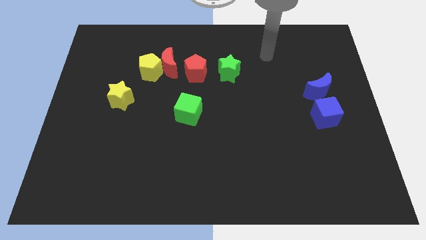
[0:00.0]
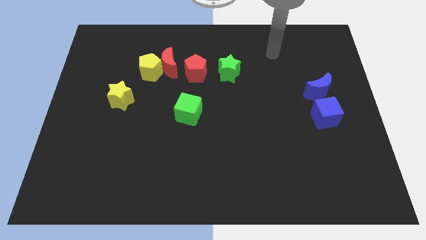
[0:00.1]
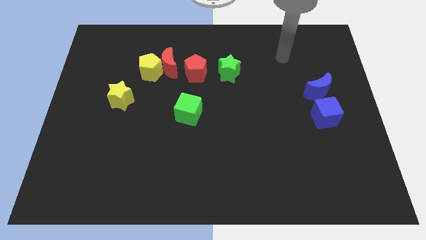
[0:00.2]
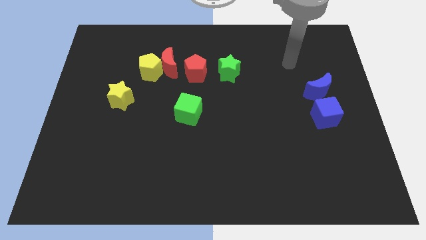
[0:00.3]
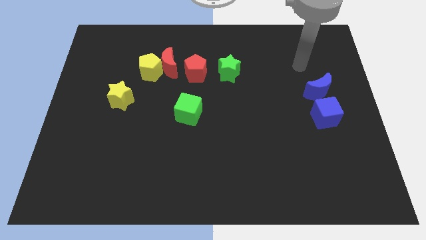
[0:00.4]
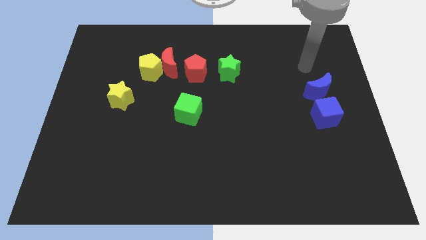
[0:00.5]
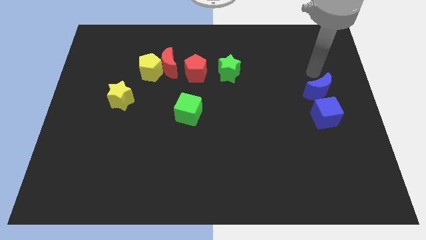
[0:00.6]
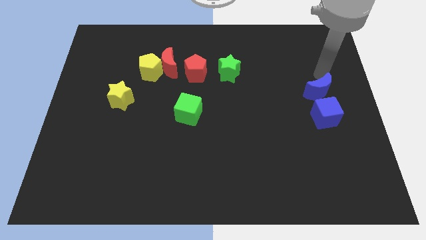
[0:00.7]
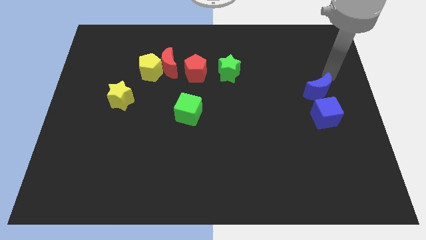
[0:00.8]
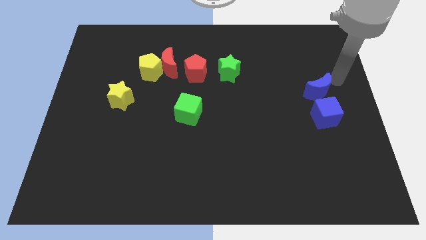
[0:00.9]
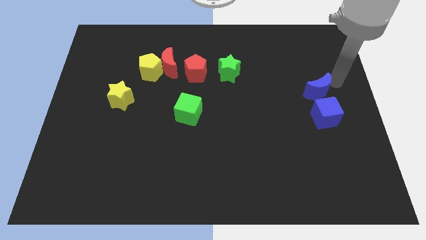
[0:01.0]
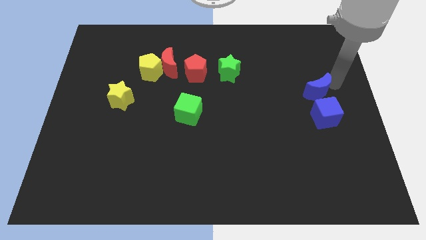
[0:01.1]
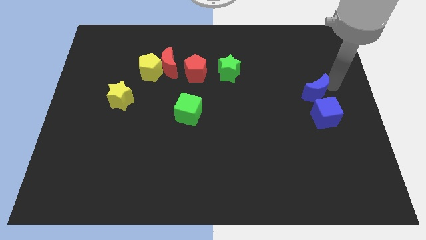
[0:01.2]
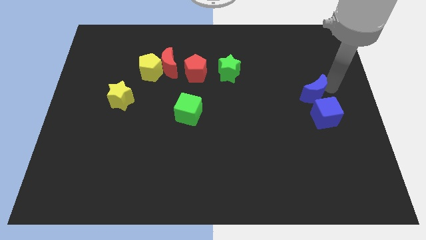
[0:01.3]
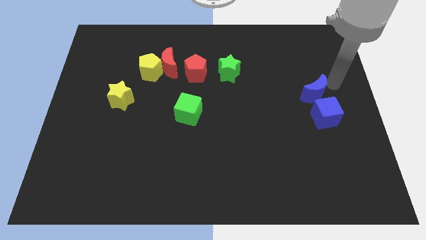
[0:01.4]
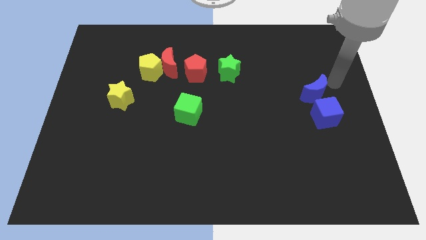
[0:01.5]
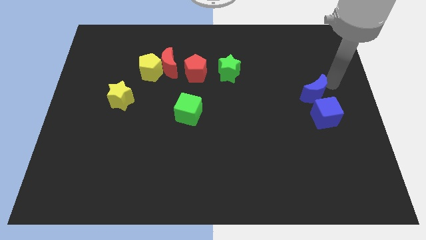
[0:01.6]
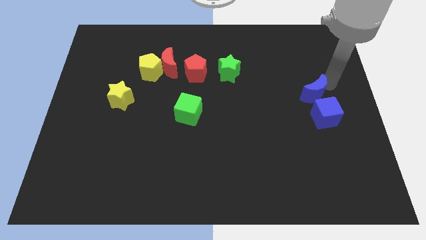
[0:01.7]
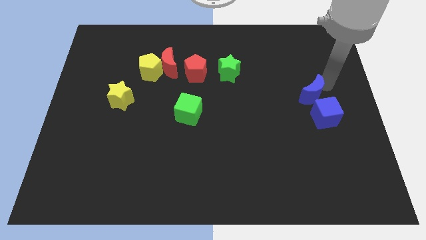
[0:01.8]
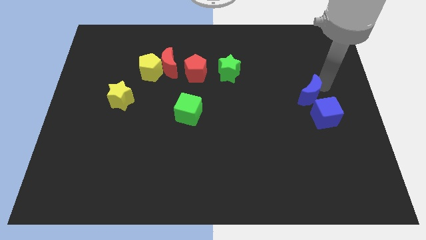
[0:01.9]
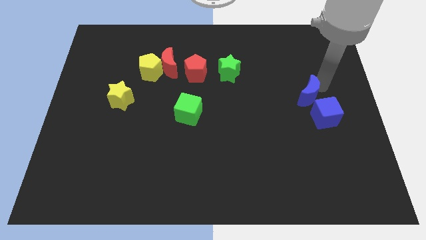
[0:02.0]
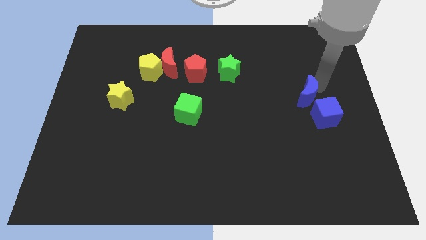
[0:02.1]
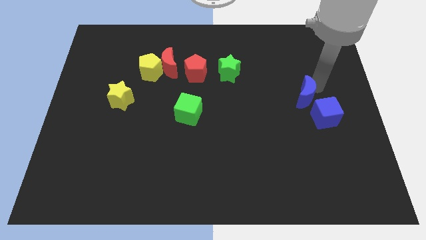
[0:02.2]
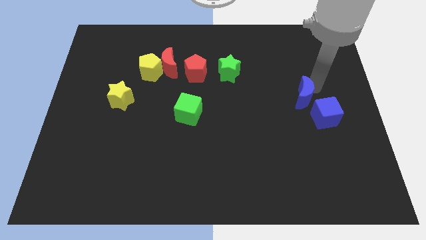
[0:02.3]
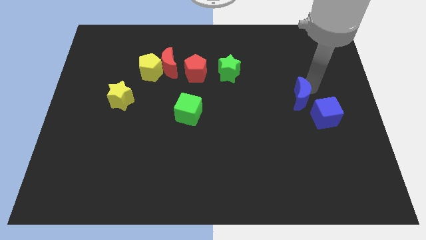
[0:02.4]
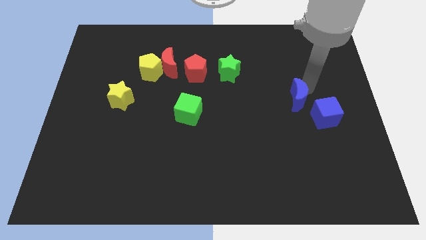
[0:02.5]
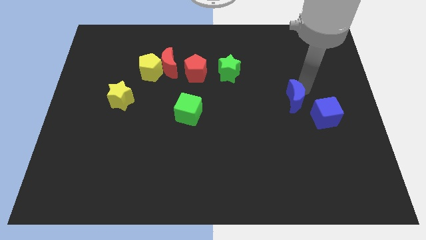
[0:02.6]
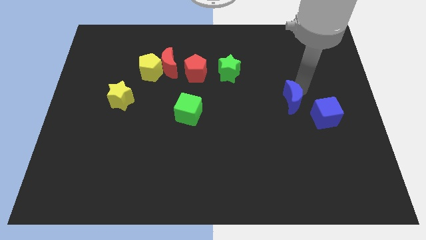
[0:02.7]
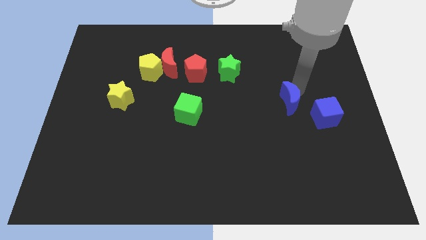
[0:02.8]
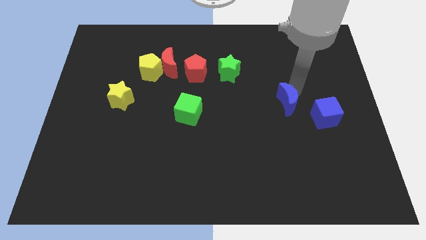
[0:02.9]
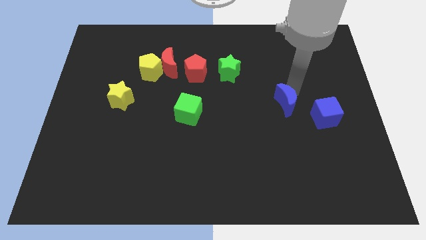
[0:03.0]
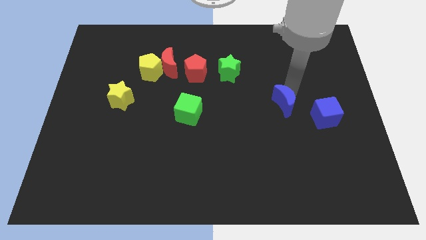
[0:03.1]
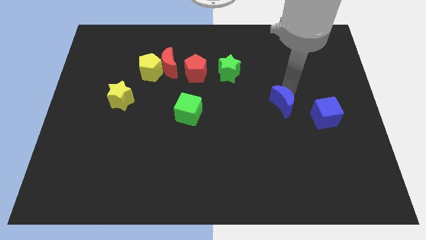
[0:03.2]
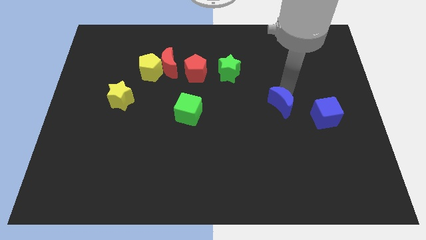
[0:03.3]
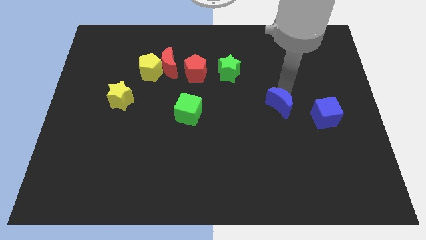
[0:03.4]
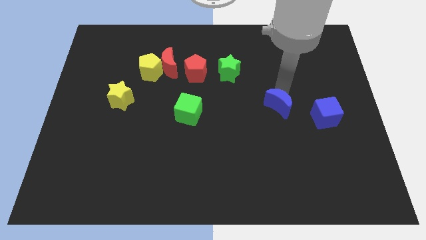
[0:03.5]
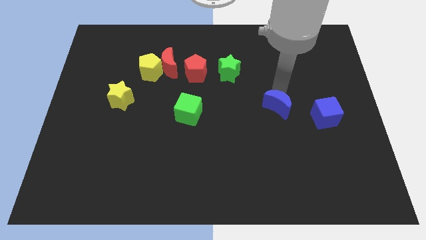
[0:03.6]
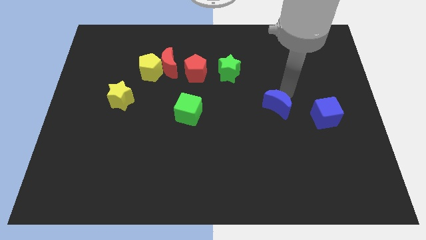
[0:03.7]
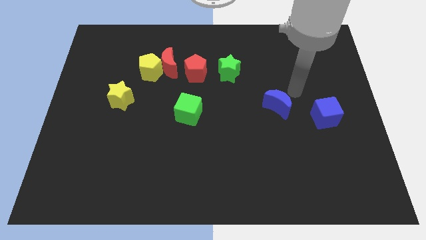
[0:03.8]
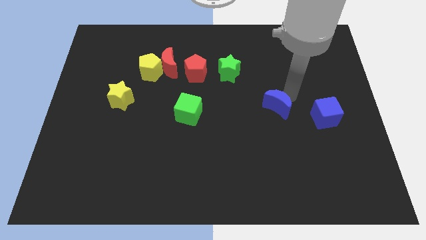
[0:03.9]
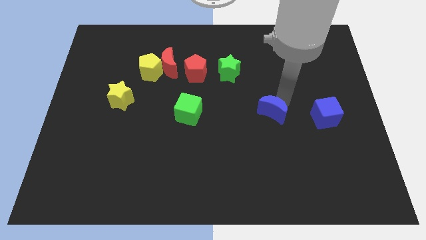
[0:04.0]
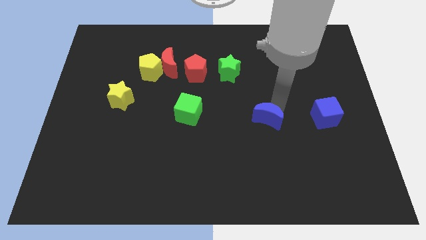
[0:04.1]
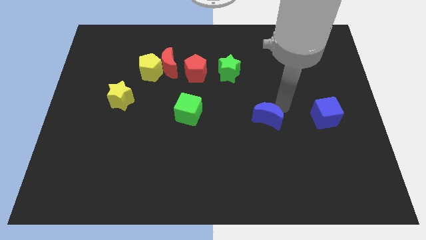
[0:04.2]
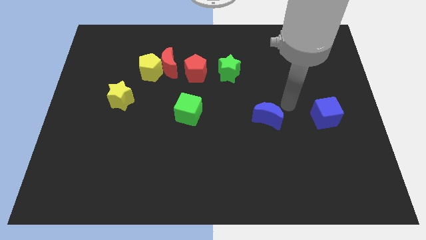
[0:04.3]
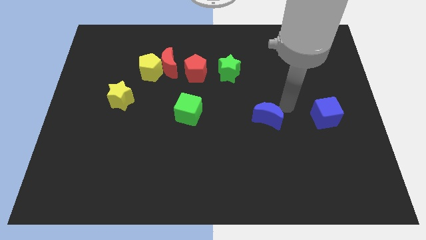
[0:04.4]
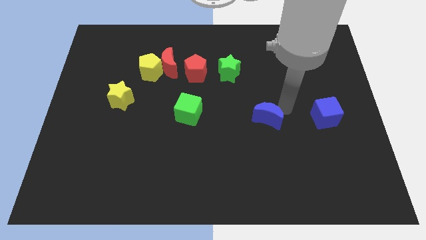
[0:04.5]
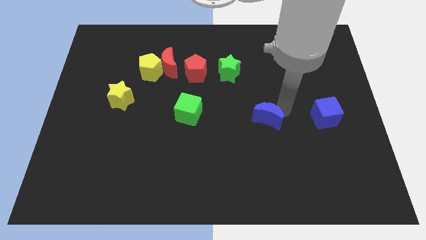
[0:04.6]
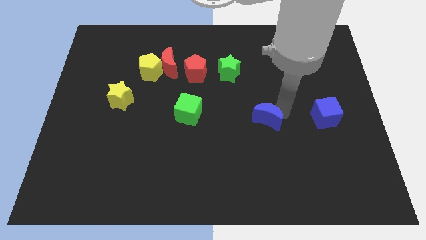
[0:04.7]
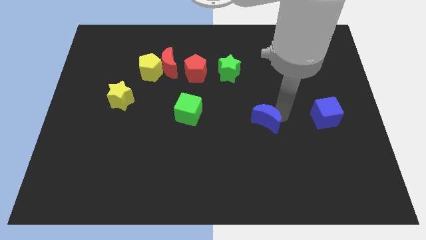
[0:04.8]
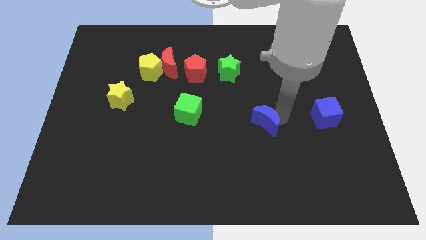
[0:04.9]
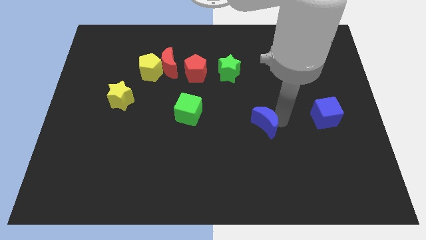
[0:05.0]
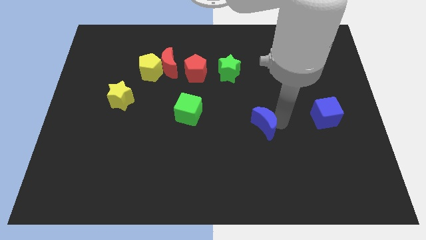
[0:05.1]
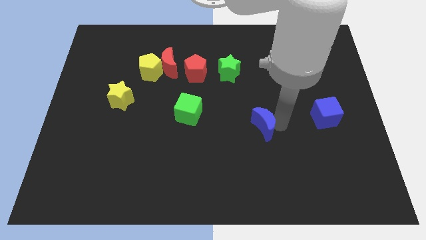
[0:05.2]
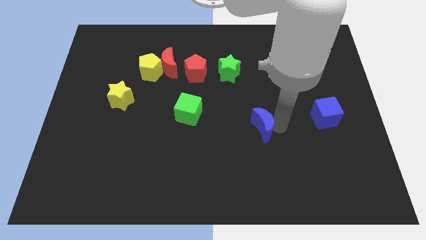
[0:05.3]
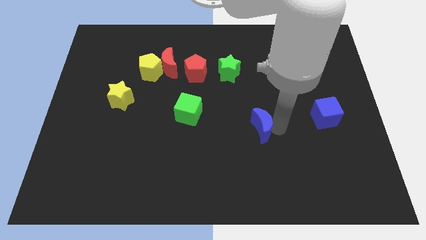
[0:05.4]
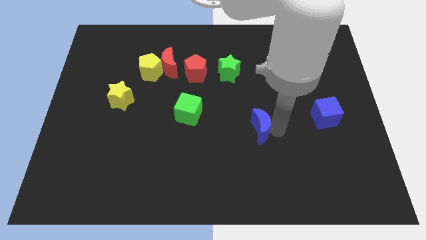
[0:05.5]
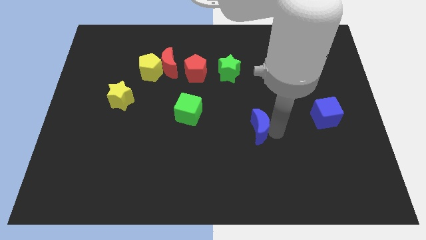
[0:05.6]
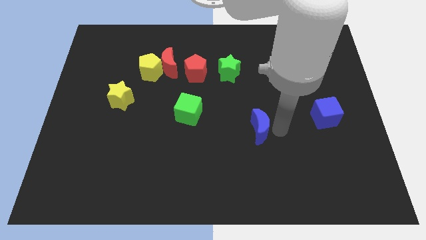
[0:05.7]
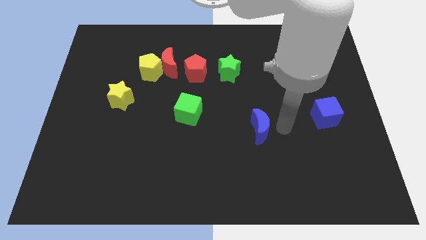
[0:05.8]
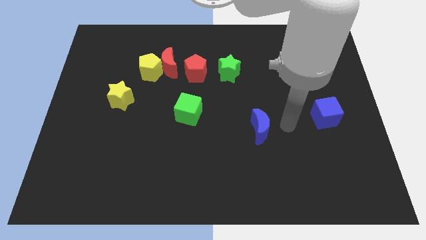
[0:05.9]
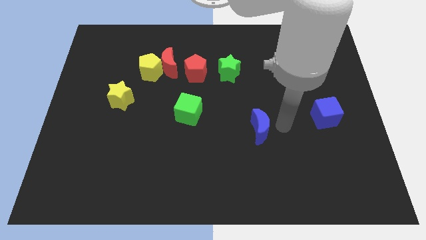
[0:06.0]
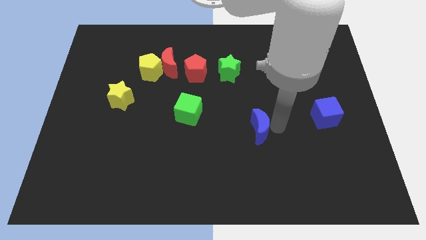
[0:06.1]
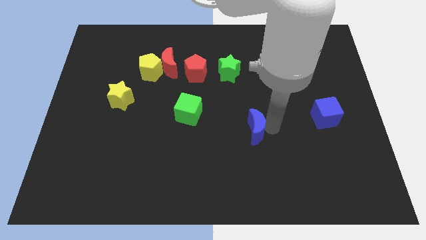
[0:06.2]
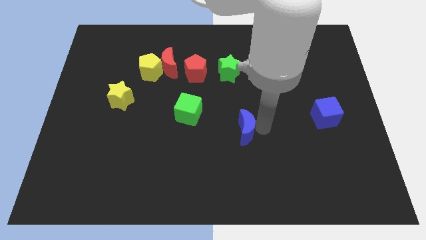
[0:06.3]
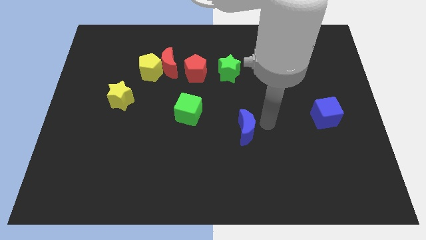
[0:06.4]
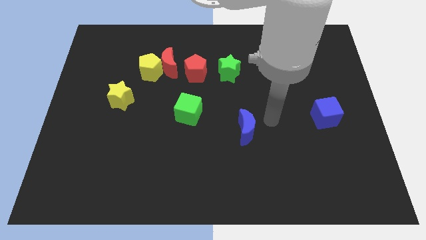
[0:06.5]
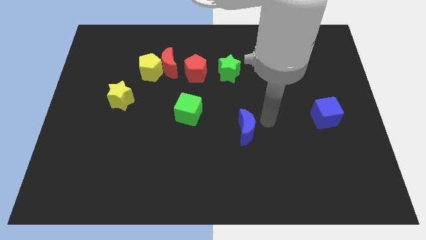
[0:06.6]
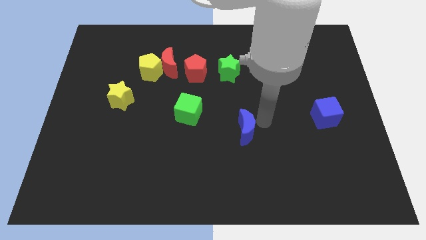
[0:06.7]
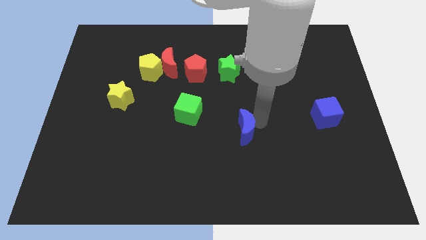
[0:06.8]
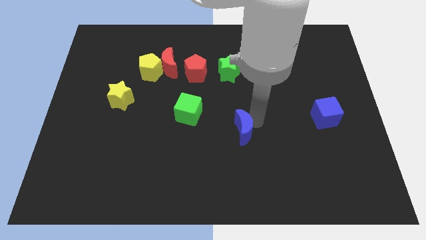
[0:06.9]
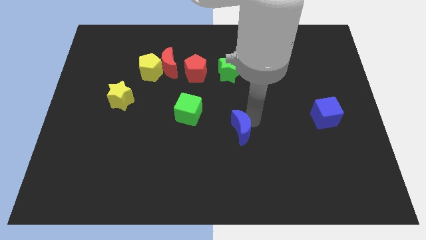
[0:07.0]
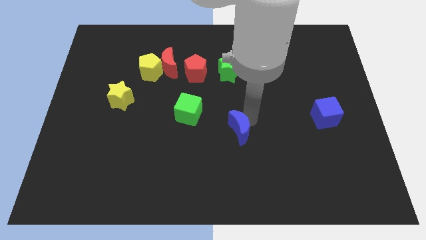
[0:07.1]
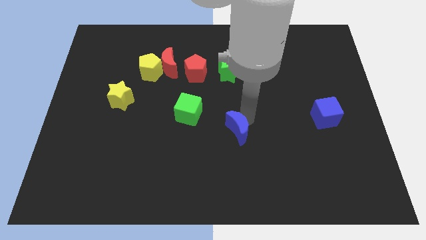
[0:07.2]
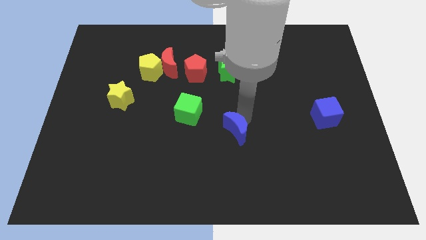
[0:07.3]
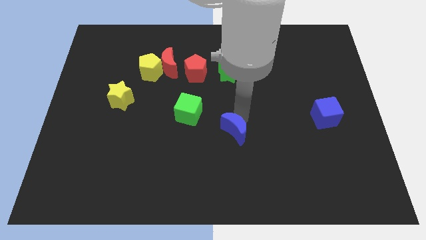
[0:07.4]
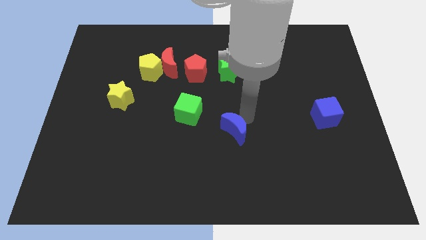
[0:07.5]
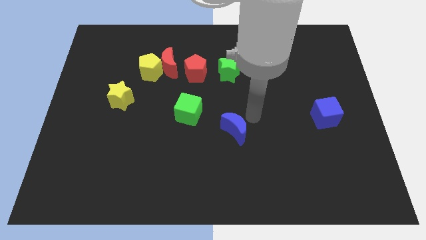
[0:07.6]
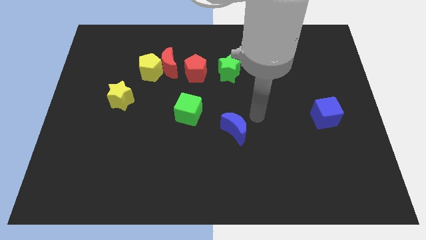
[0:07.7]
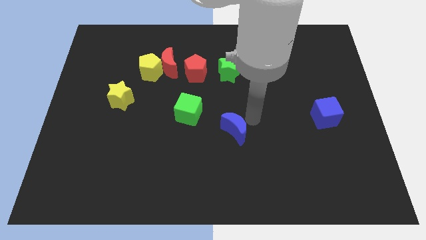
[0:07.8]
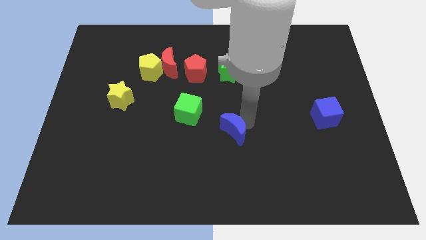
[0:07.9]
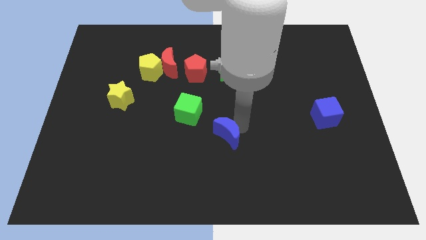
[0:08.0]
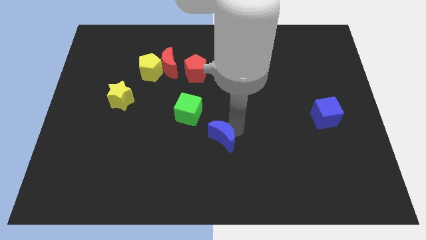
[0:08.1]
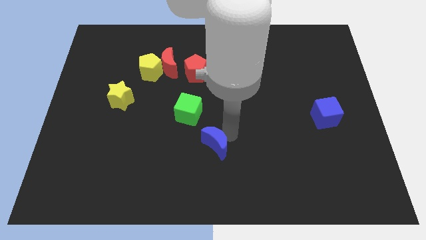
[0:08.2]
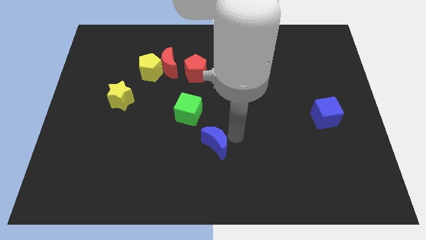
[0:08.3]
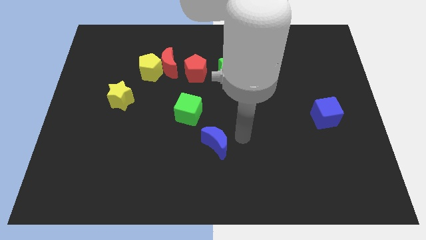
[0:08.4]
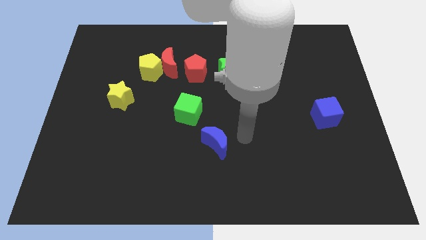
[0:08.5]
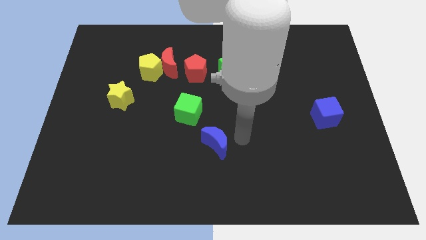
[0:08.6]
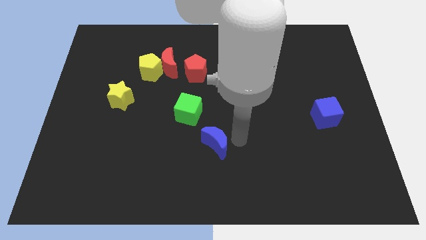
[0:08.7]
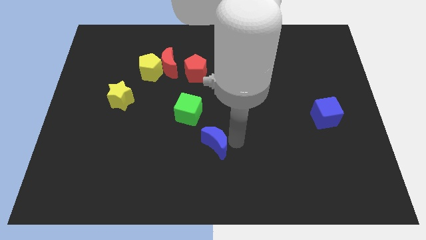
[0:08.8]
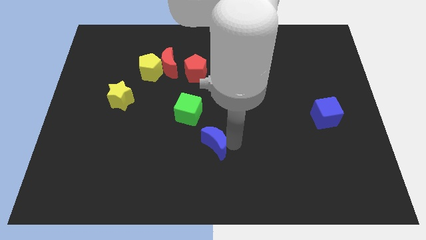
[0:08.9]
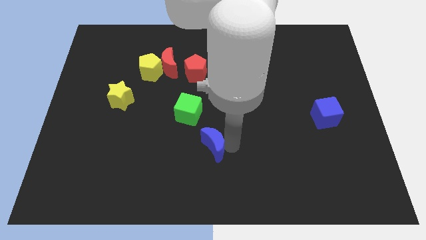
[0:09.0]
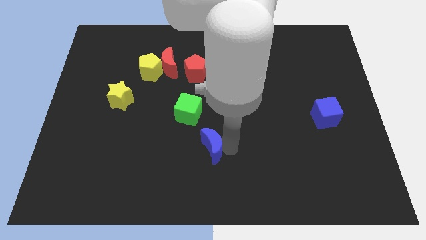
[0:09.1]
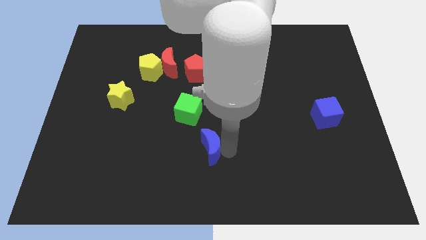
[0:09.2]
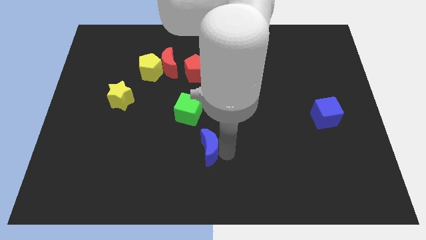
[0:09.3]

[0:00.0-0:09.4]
push the blue moon to the bottom of the green cube
